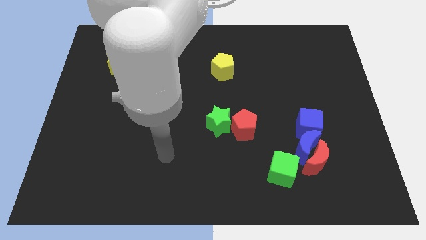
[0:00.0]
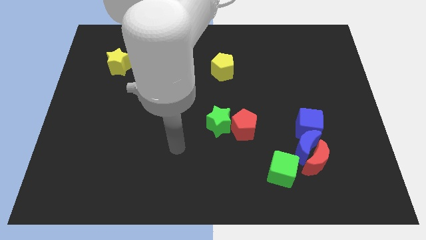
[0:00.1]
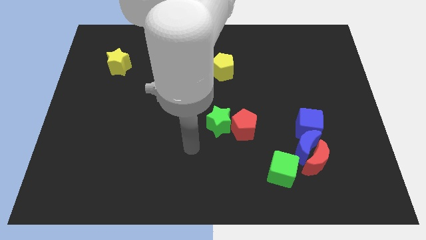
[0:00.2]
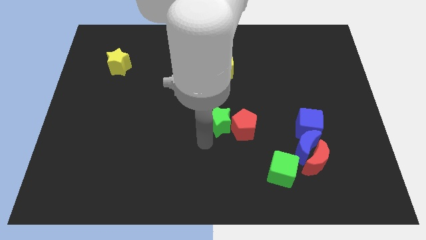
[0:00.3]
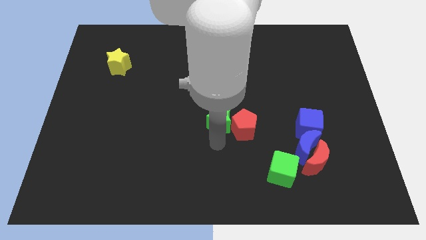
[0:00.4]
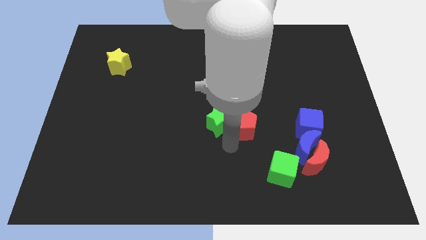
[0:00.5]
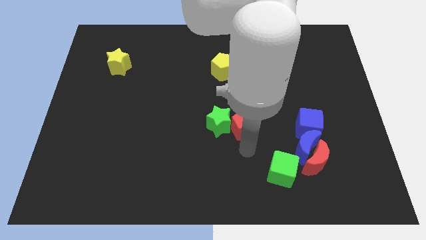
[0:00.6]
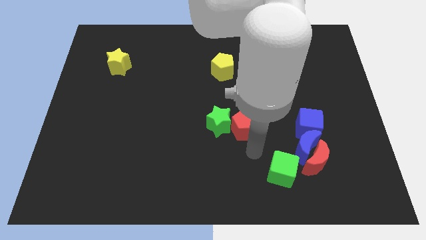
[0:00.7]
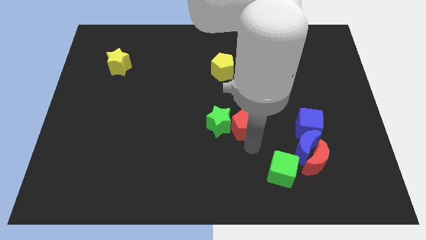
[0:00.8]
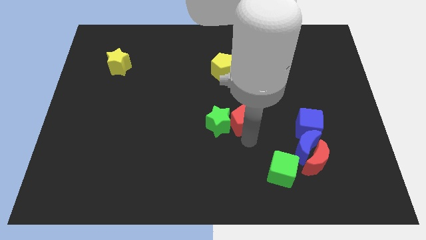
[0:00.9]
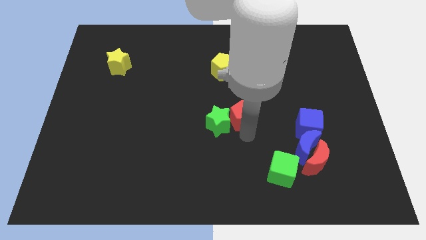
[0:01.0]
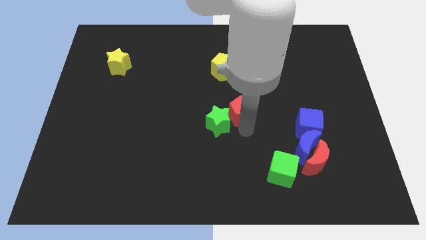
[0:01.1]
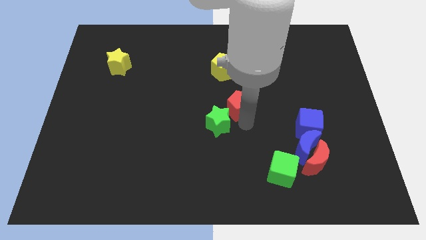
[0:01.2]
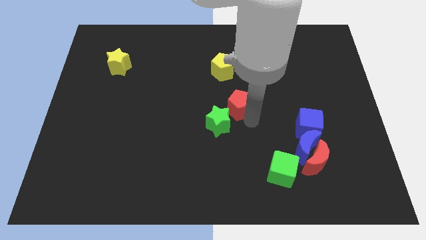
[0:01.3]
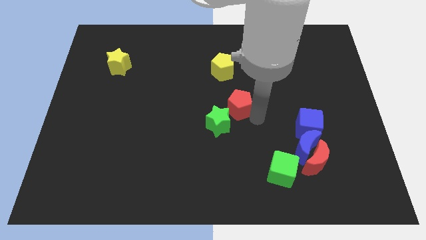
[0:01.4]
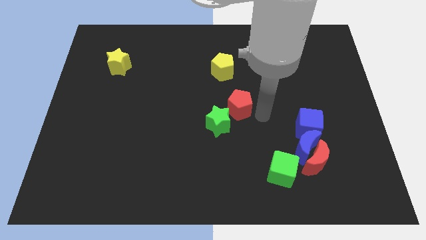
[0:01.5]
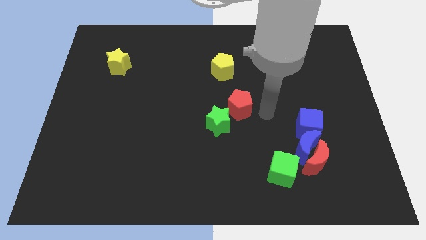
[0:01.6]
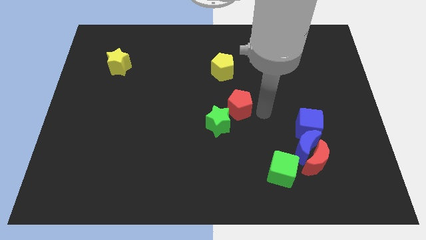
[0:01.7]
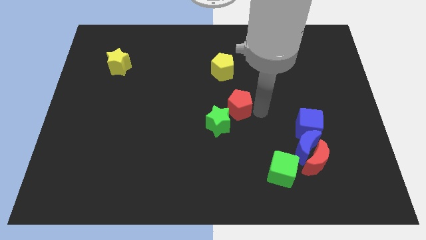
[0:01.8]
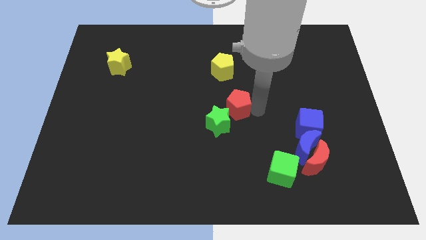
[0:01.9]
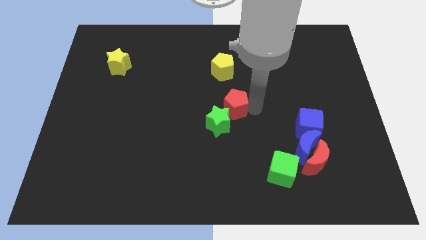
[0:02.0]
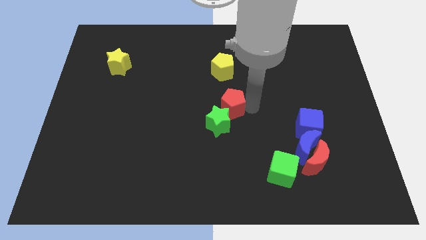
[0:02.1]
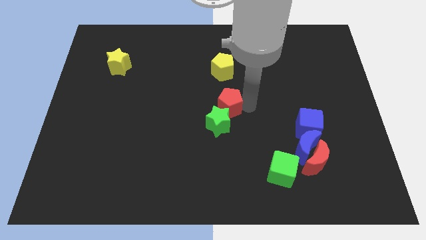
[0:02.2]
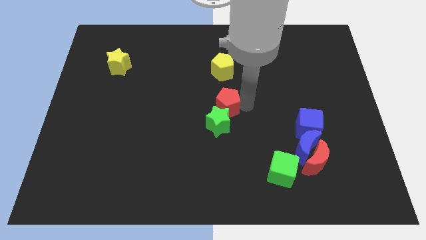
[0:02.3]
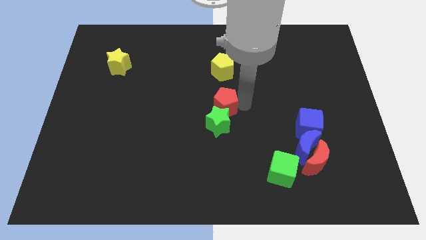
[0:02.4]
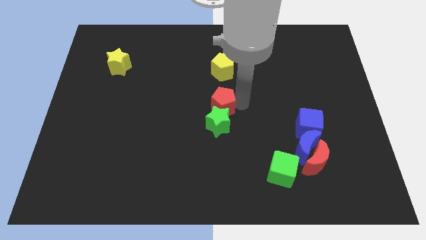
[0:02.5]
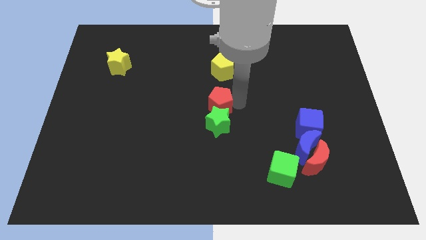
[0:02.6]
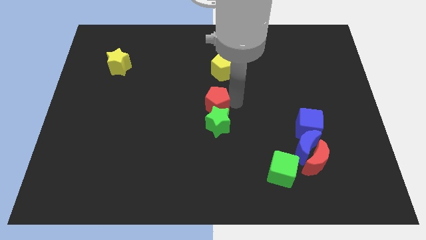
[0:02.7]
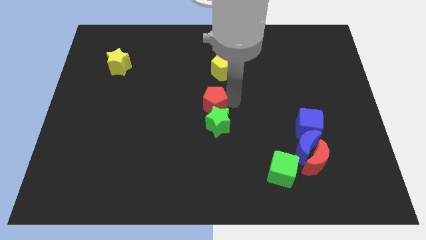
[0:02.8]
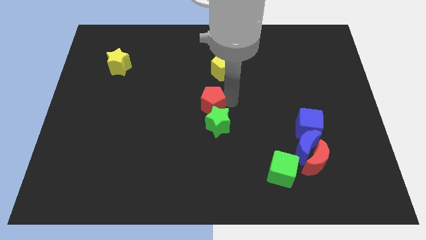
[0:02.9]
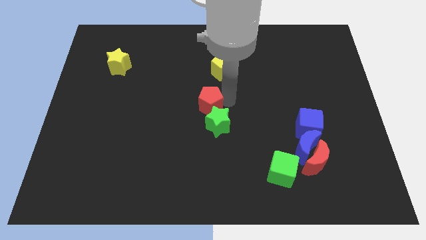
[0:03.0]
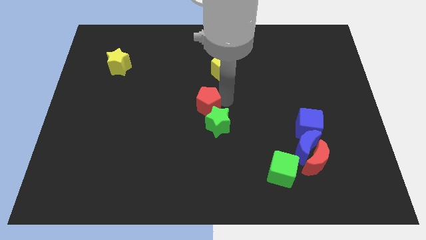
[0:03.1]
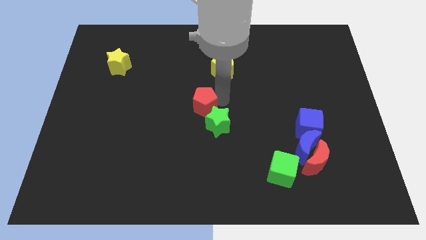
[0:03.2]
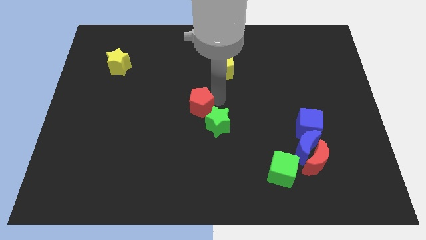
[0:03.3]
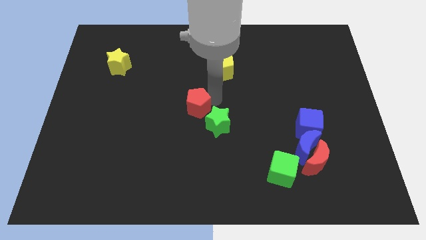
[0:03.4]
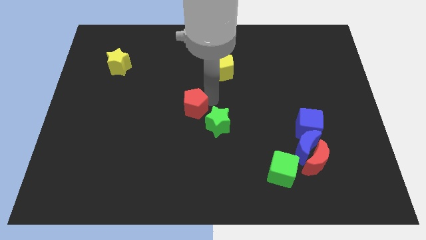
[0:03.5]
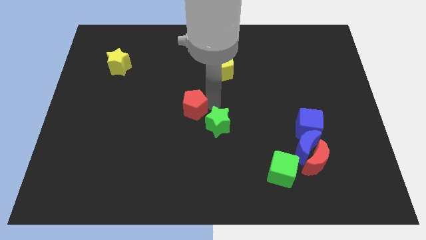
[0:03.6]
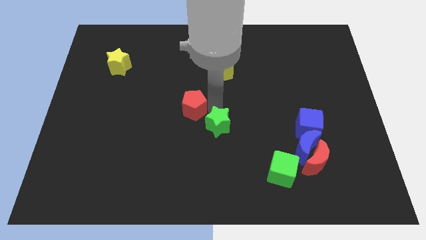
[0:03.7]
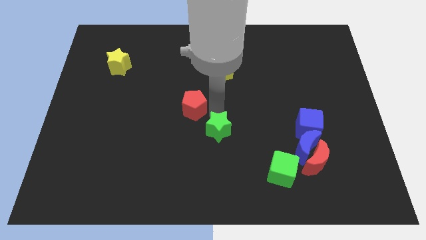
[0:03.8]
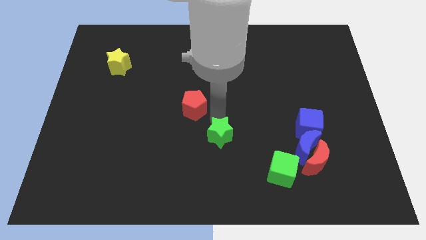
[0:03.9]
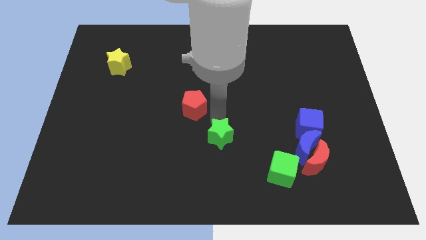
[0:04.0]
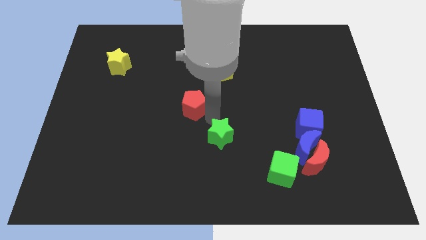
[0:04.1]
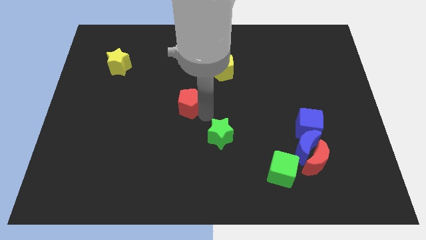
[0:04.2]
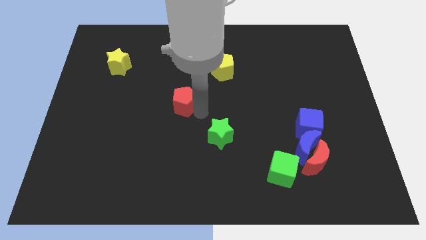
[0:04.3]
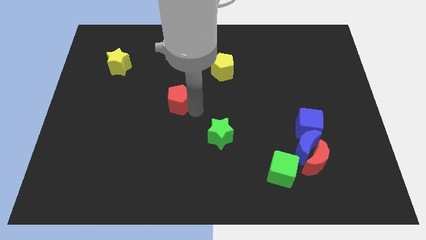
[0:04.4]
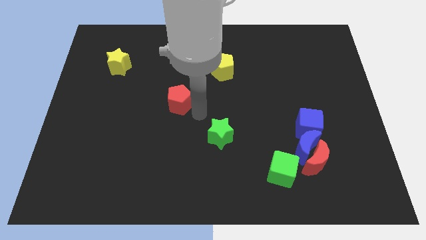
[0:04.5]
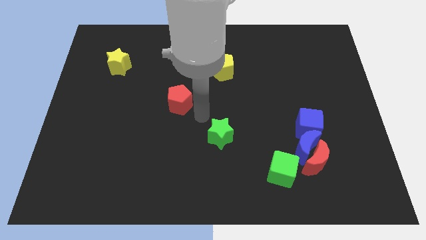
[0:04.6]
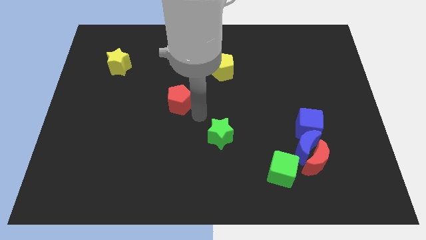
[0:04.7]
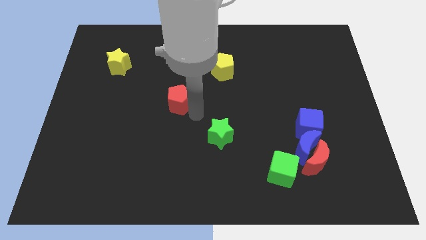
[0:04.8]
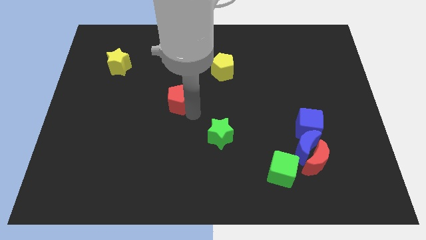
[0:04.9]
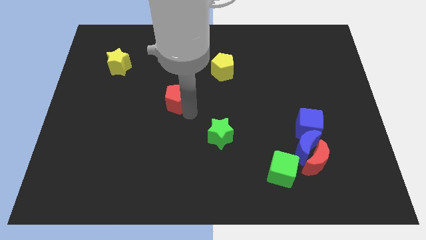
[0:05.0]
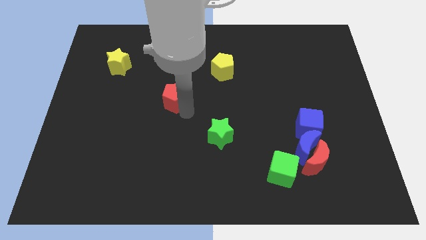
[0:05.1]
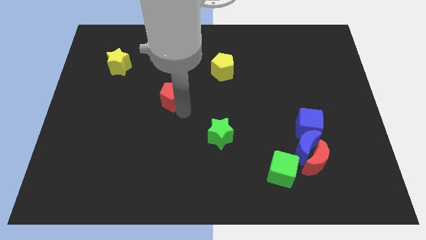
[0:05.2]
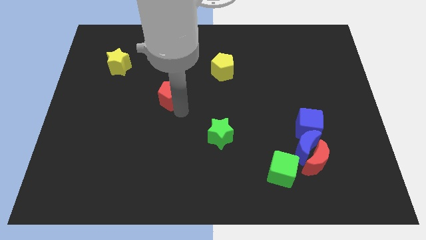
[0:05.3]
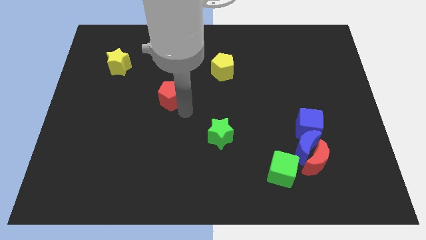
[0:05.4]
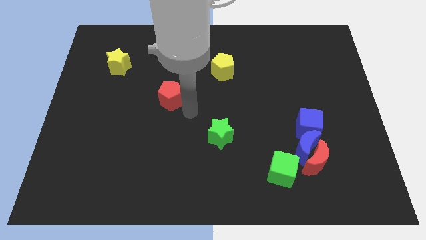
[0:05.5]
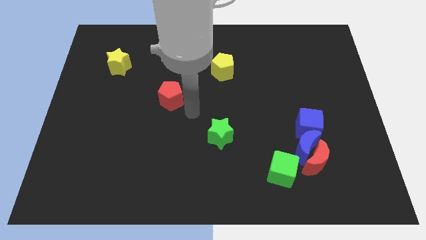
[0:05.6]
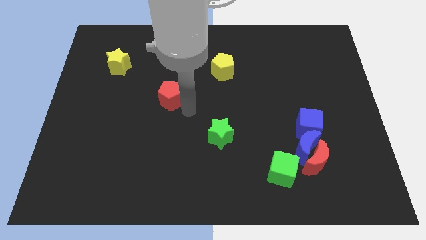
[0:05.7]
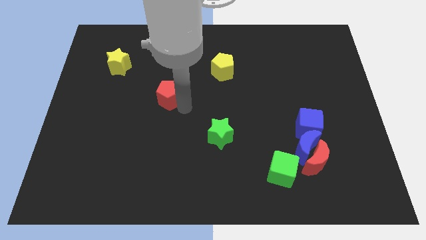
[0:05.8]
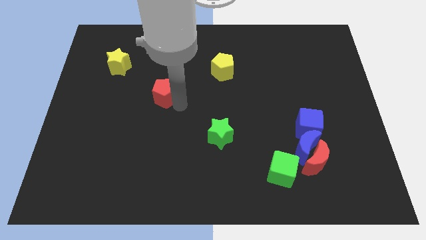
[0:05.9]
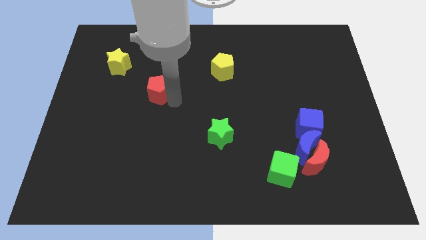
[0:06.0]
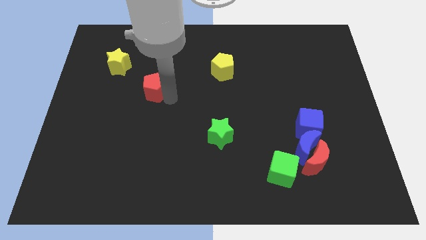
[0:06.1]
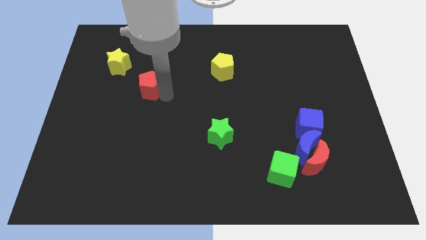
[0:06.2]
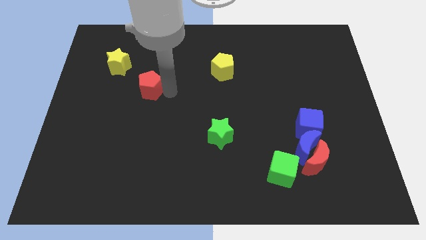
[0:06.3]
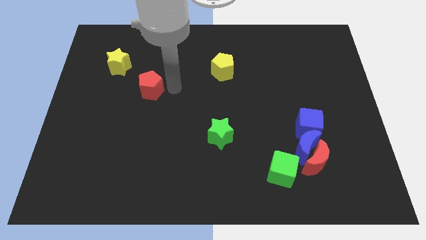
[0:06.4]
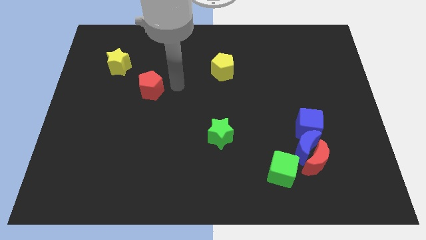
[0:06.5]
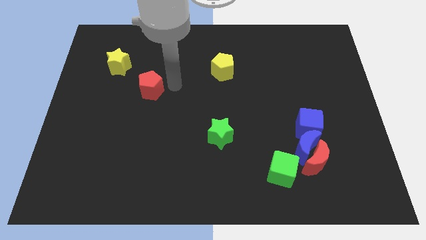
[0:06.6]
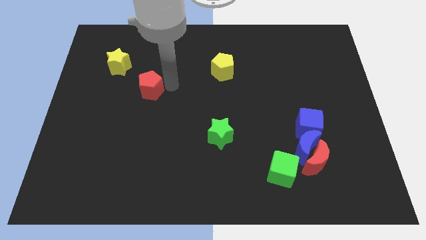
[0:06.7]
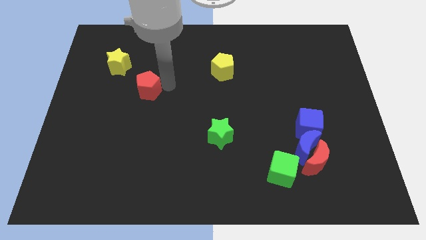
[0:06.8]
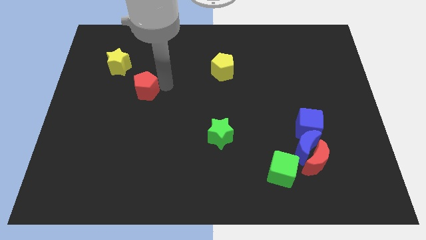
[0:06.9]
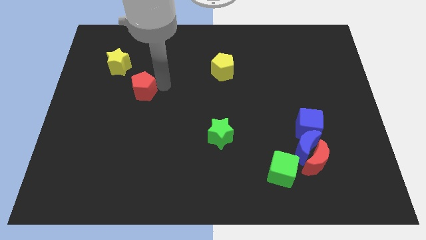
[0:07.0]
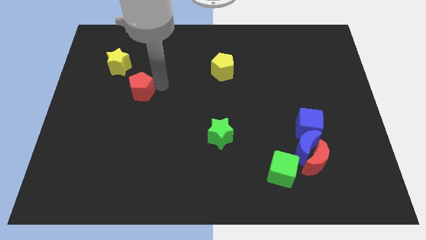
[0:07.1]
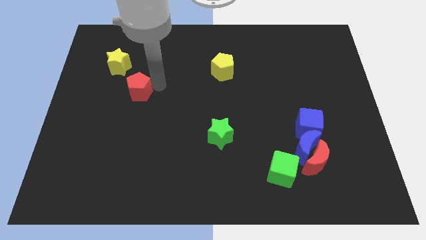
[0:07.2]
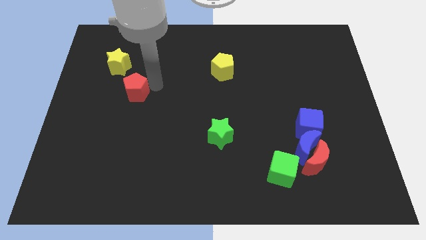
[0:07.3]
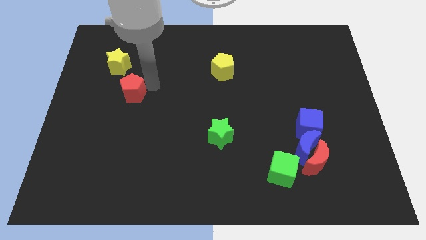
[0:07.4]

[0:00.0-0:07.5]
put the red pentagon below the yellow star
